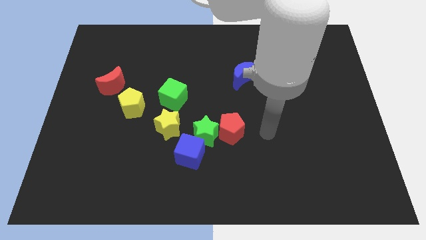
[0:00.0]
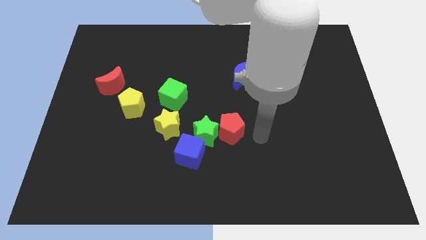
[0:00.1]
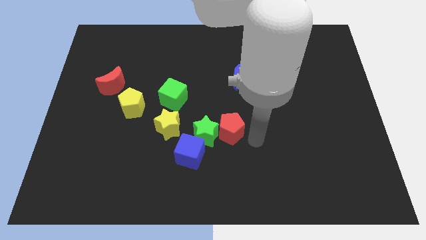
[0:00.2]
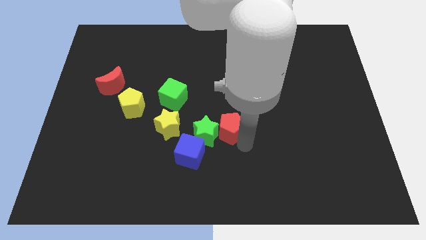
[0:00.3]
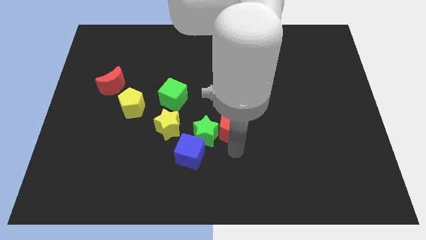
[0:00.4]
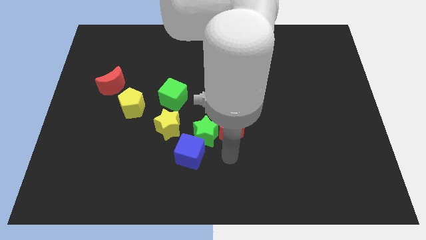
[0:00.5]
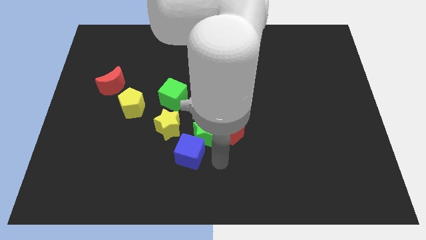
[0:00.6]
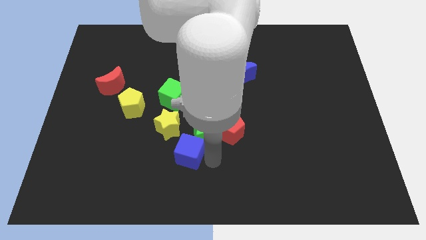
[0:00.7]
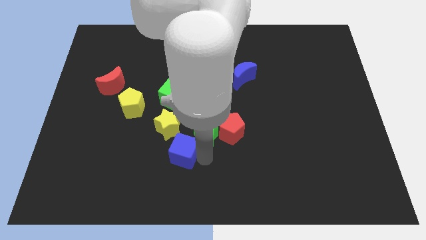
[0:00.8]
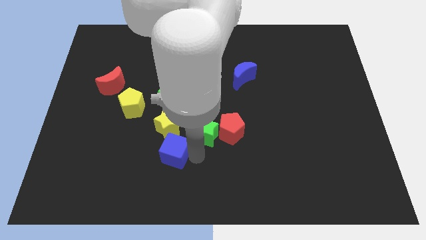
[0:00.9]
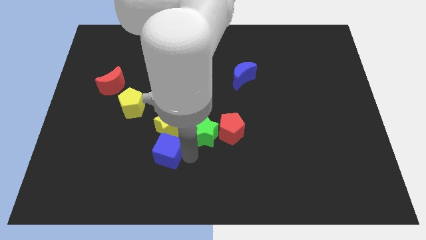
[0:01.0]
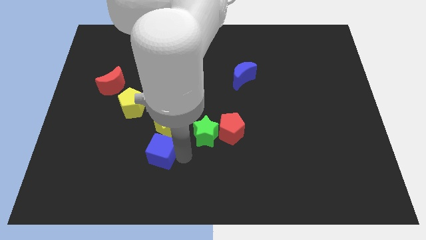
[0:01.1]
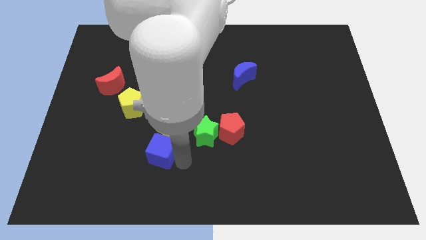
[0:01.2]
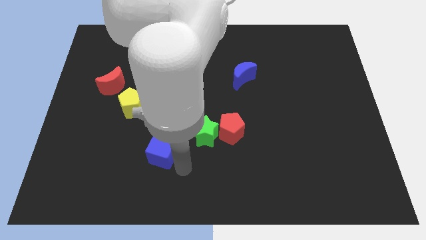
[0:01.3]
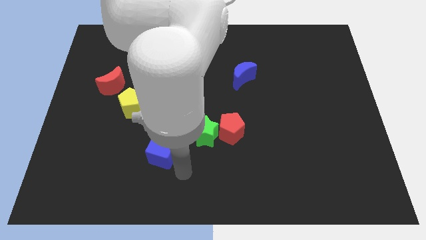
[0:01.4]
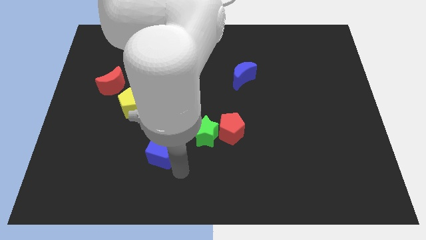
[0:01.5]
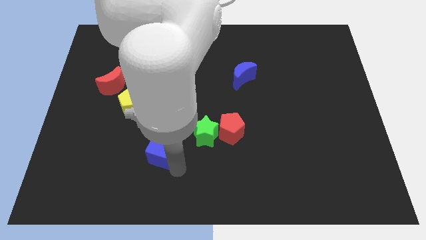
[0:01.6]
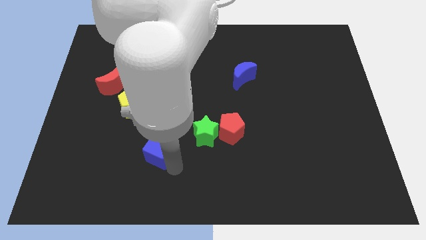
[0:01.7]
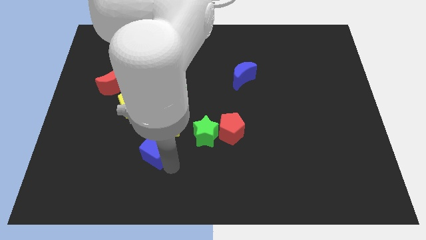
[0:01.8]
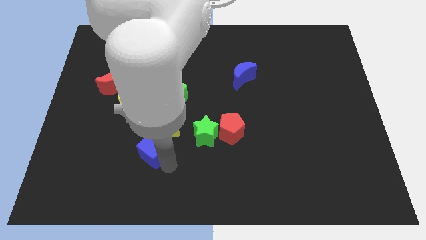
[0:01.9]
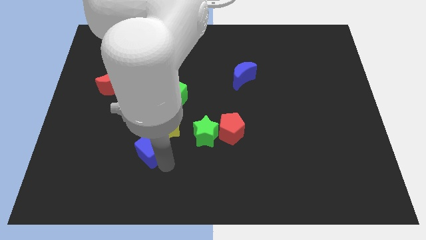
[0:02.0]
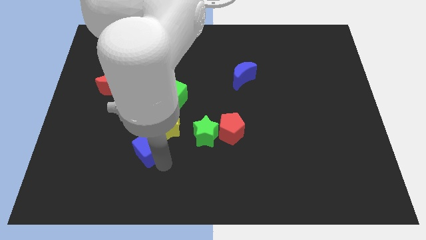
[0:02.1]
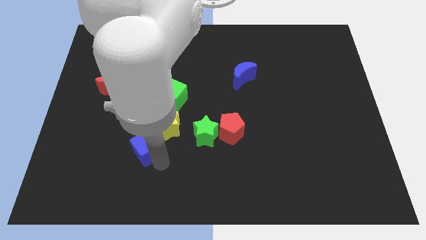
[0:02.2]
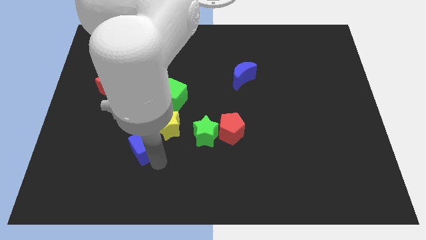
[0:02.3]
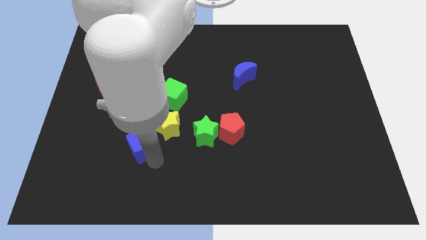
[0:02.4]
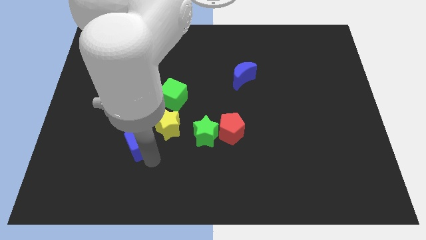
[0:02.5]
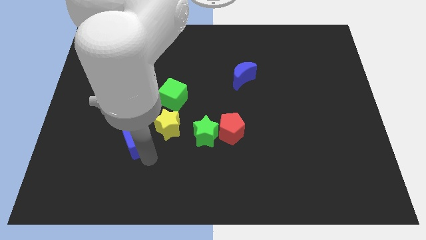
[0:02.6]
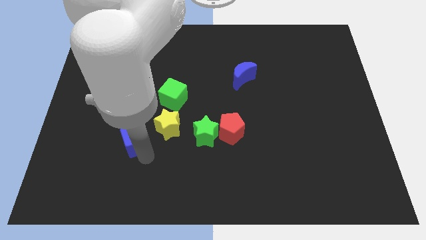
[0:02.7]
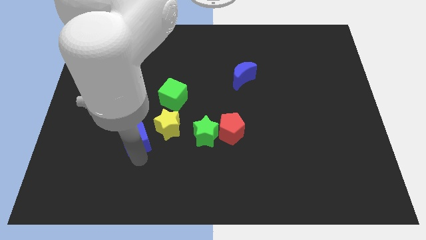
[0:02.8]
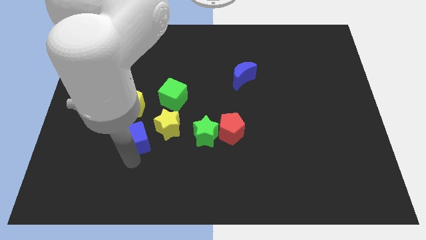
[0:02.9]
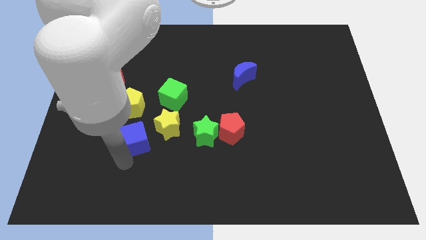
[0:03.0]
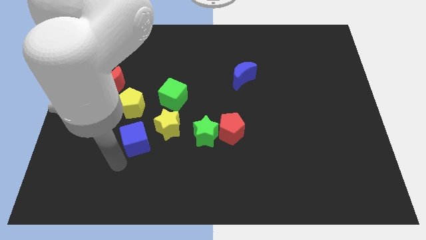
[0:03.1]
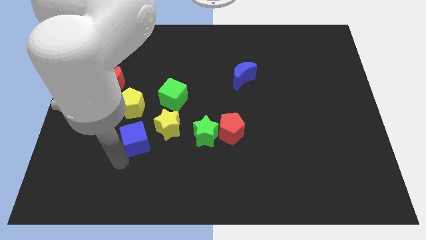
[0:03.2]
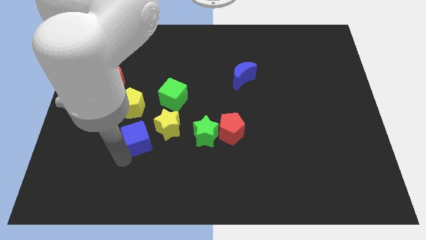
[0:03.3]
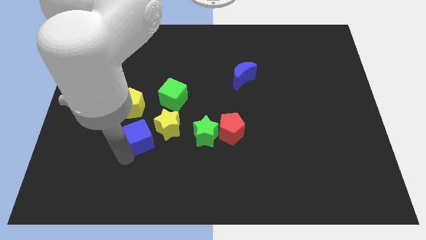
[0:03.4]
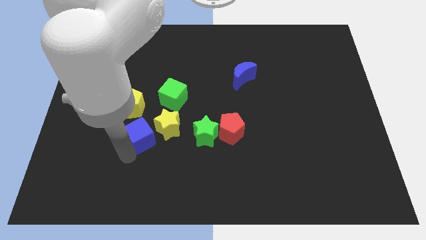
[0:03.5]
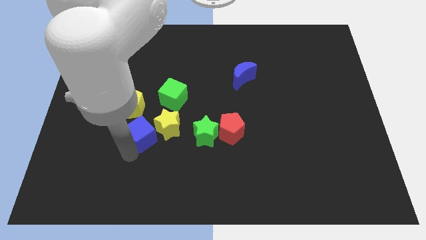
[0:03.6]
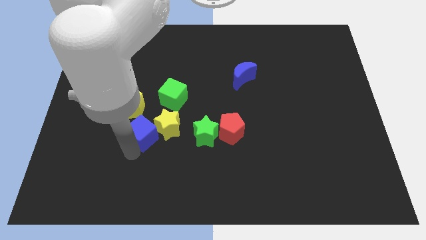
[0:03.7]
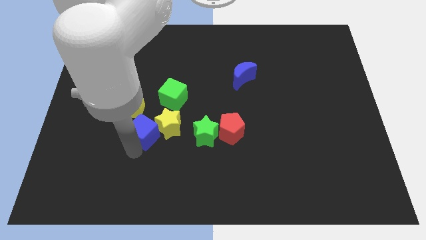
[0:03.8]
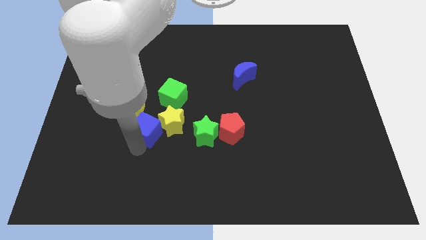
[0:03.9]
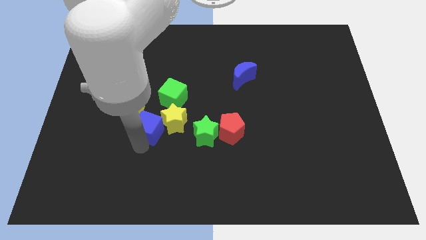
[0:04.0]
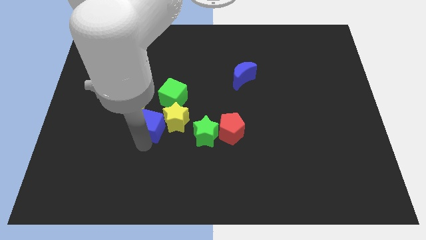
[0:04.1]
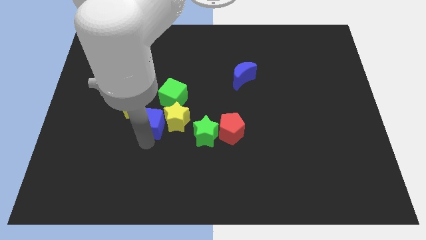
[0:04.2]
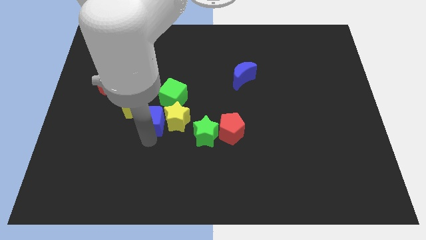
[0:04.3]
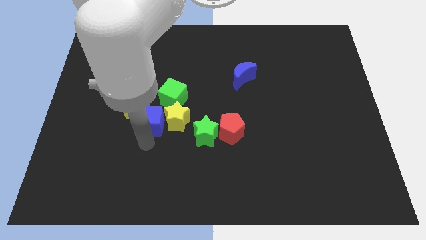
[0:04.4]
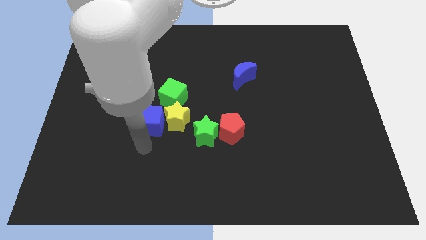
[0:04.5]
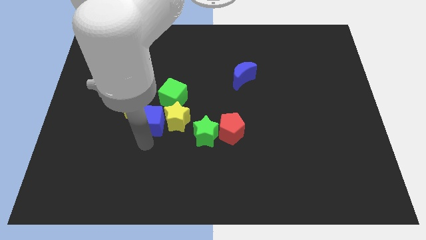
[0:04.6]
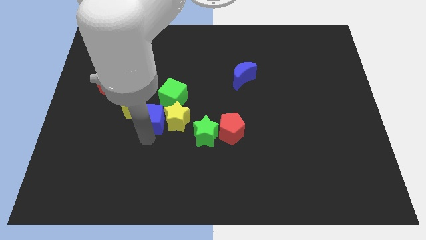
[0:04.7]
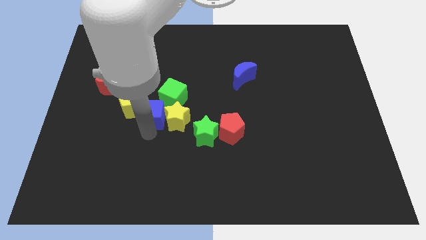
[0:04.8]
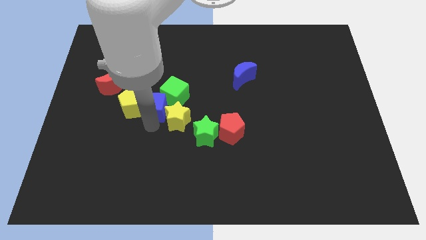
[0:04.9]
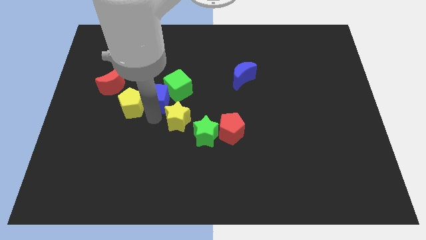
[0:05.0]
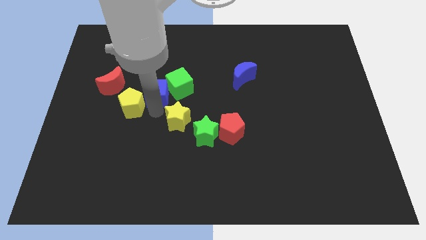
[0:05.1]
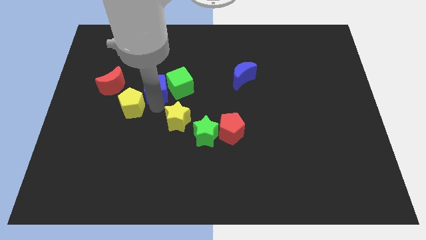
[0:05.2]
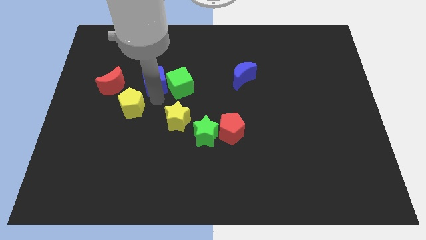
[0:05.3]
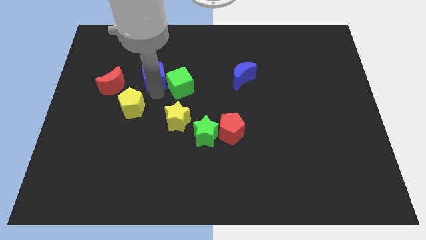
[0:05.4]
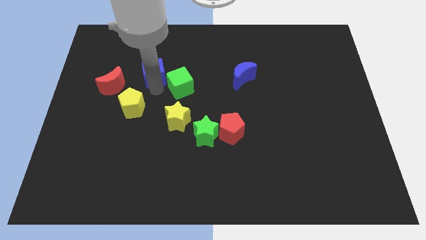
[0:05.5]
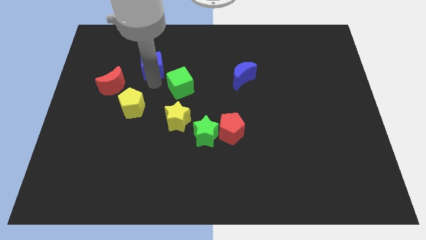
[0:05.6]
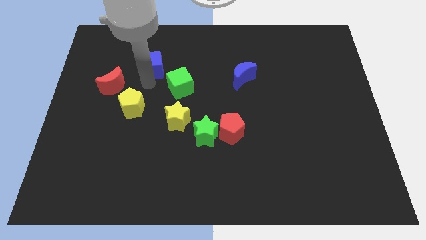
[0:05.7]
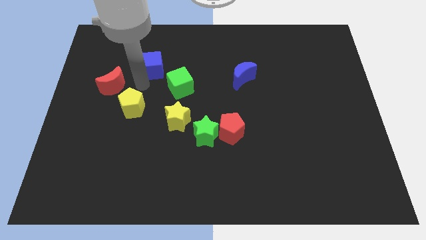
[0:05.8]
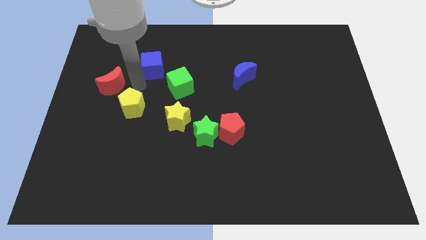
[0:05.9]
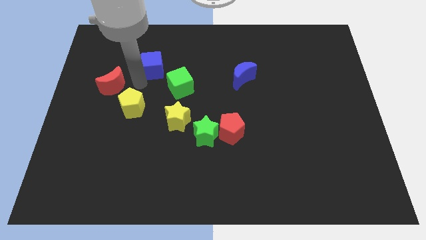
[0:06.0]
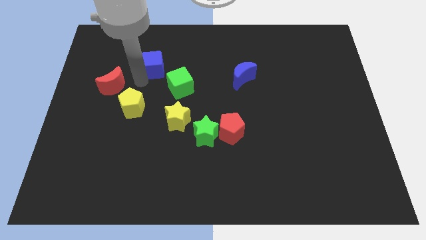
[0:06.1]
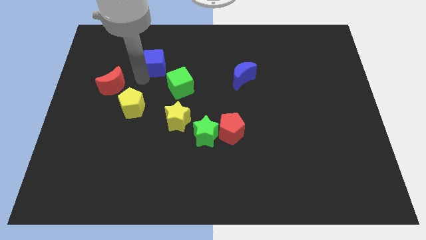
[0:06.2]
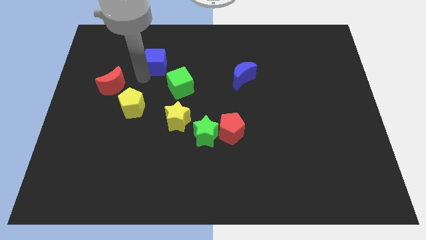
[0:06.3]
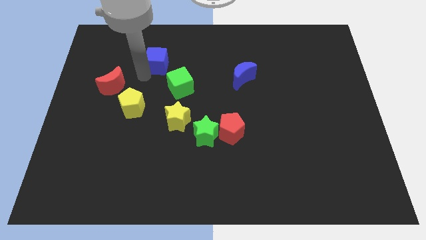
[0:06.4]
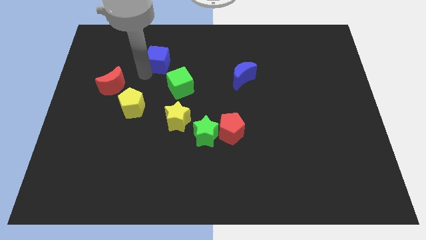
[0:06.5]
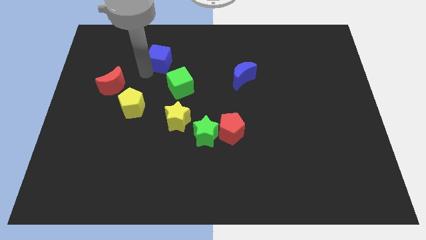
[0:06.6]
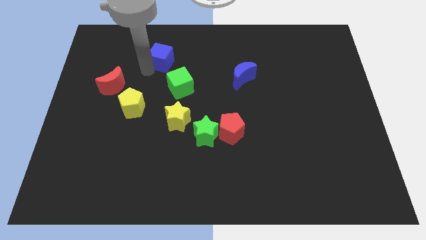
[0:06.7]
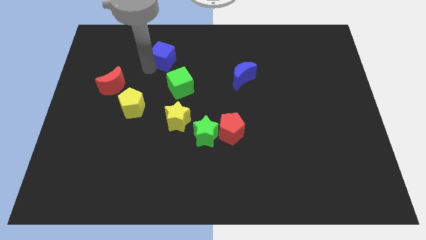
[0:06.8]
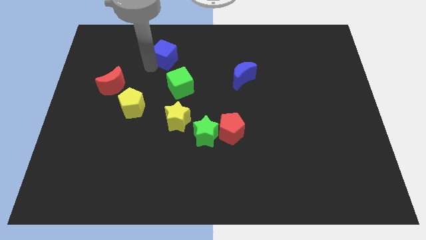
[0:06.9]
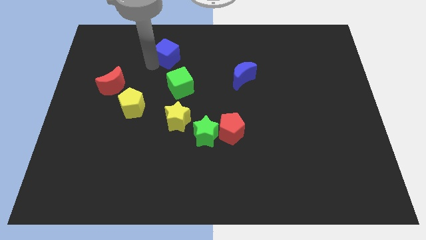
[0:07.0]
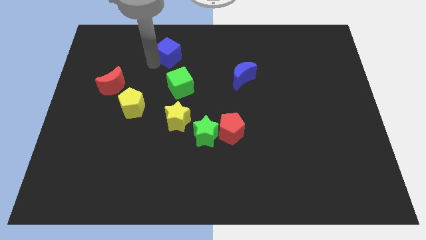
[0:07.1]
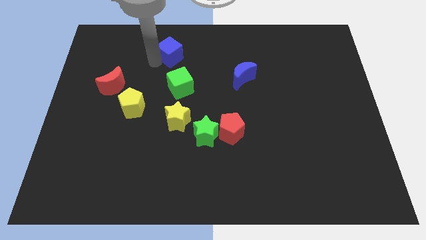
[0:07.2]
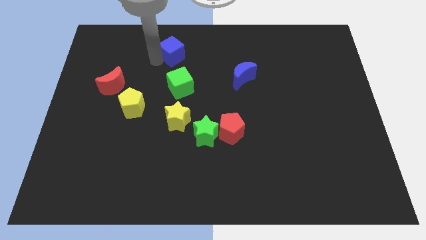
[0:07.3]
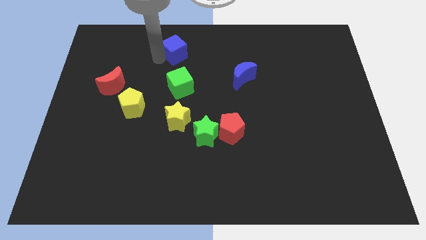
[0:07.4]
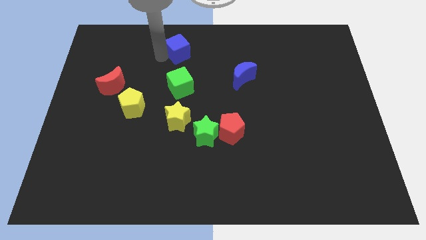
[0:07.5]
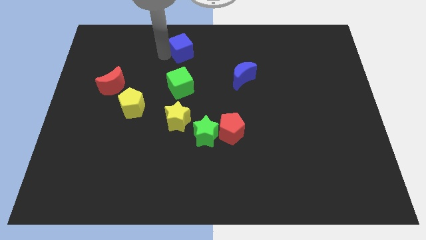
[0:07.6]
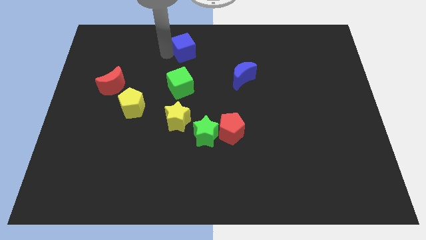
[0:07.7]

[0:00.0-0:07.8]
push the blue cube to the towards your base
